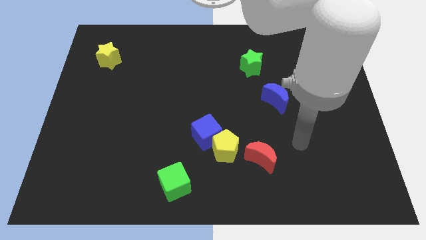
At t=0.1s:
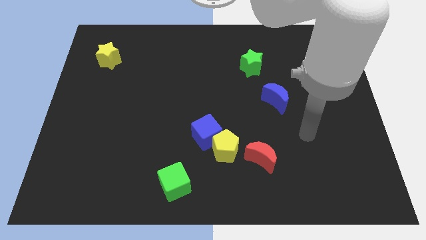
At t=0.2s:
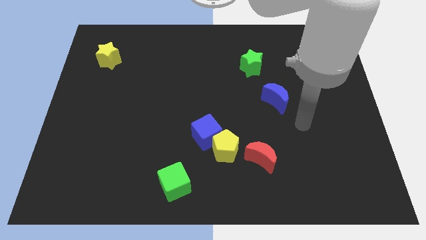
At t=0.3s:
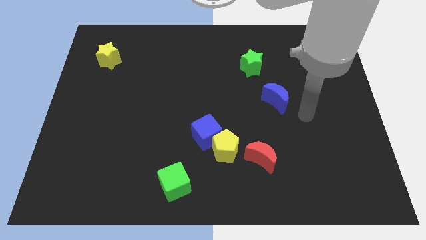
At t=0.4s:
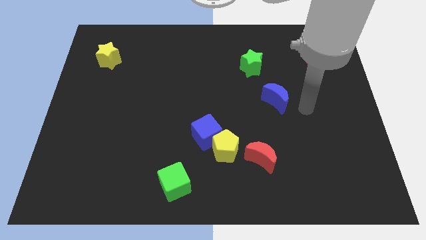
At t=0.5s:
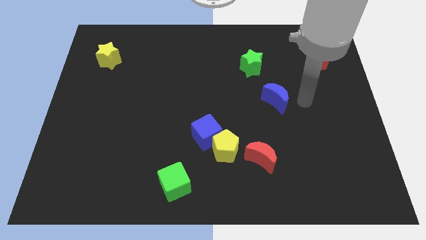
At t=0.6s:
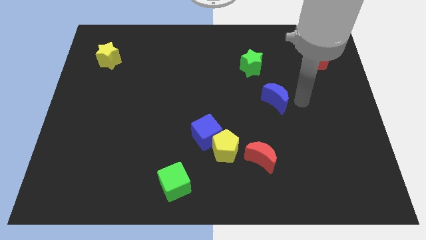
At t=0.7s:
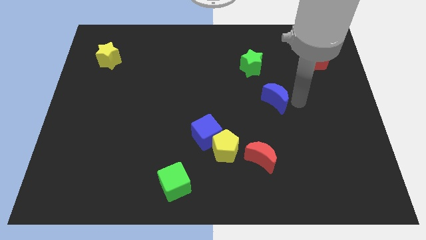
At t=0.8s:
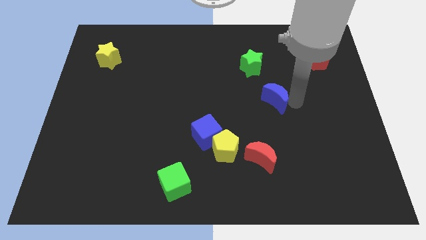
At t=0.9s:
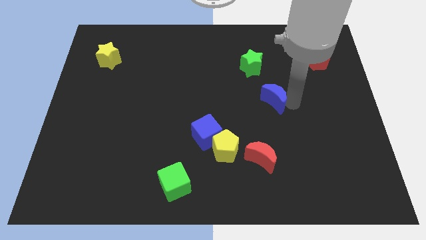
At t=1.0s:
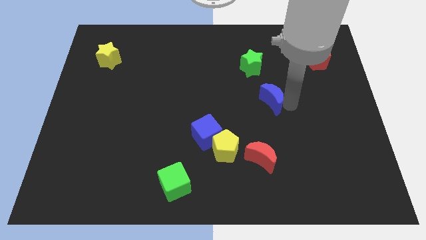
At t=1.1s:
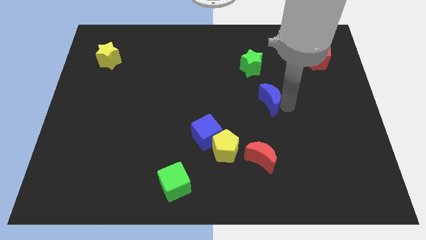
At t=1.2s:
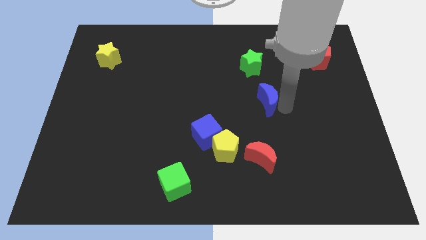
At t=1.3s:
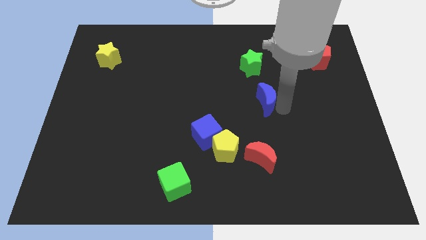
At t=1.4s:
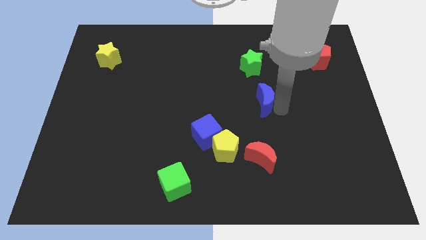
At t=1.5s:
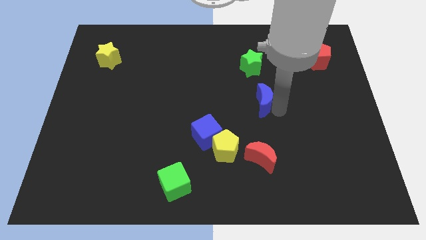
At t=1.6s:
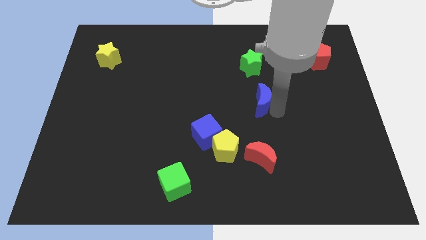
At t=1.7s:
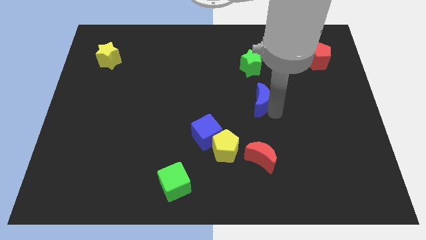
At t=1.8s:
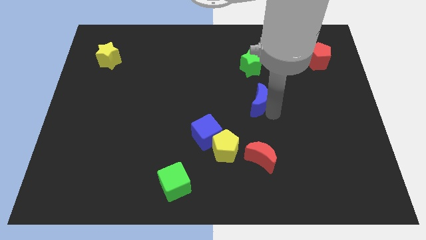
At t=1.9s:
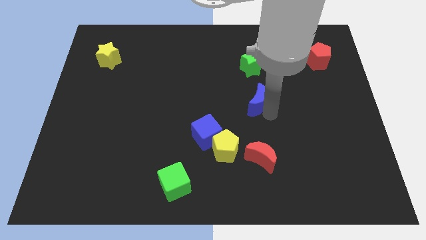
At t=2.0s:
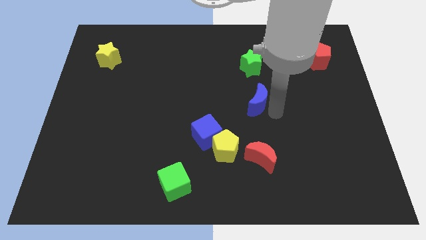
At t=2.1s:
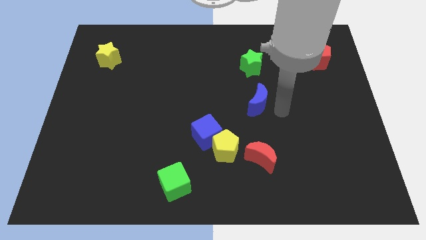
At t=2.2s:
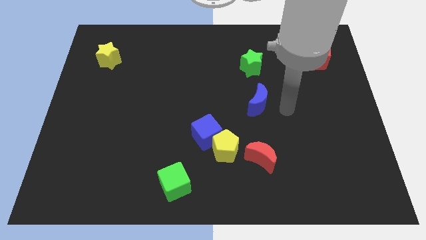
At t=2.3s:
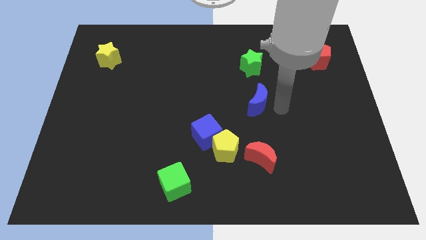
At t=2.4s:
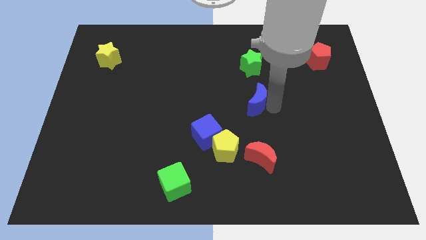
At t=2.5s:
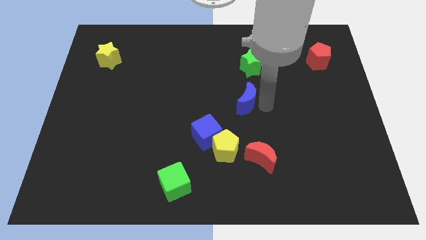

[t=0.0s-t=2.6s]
push the blue moon to the left a little

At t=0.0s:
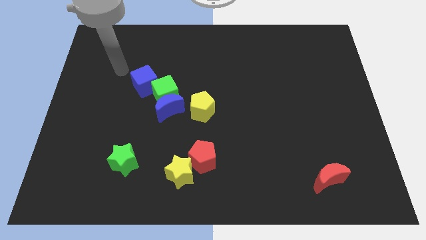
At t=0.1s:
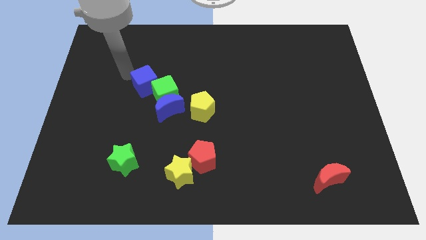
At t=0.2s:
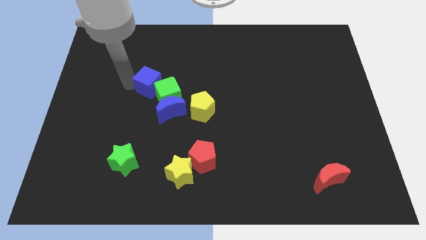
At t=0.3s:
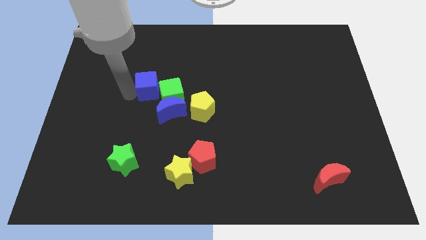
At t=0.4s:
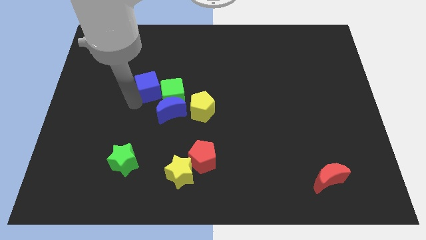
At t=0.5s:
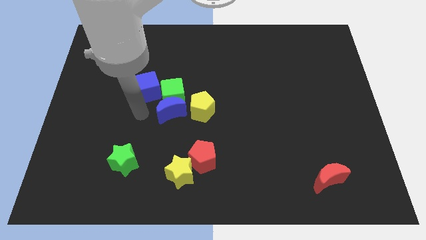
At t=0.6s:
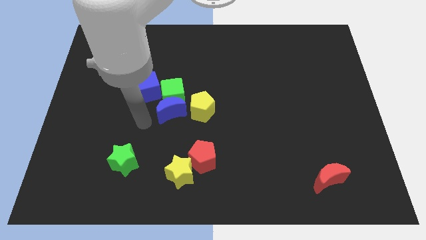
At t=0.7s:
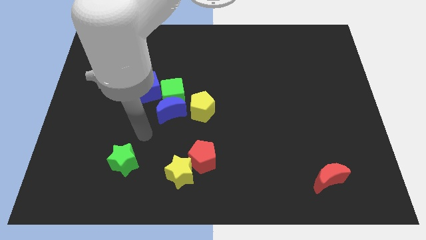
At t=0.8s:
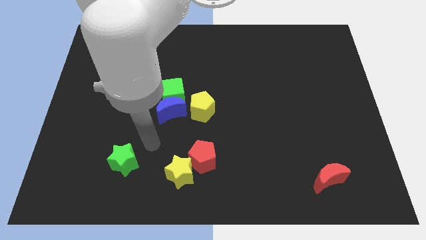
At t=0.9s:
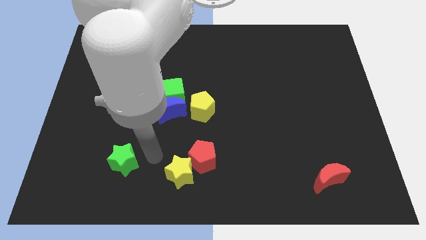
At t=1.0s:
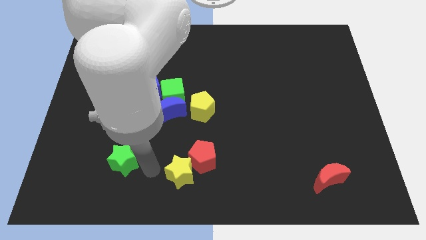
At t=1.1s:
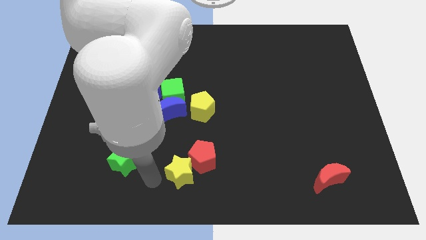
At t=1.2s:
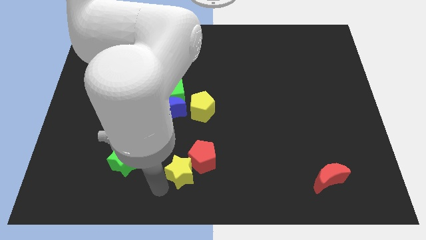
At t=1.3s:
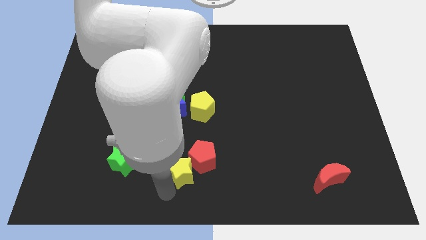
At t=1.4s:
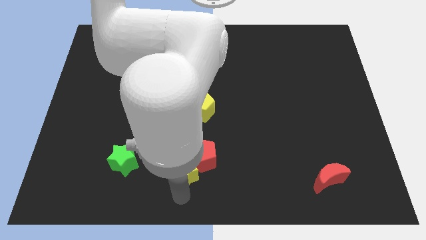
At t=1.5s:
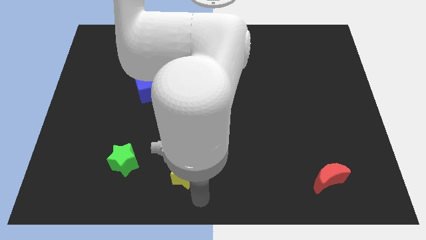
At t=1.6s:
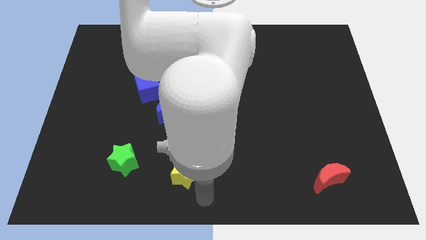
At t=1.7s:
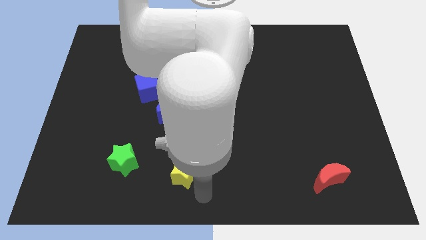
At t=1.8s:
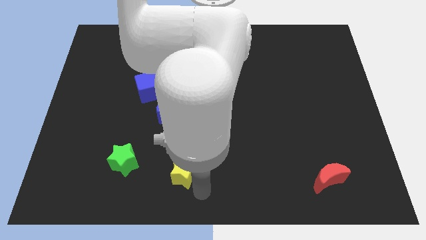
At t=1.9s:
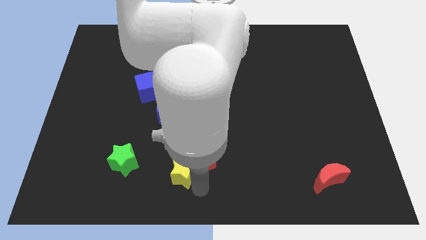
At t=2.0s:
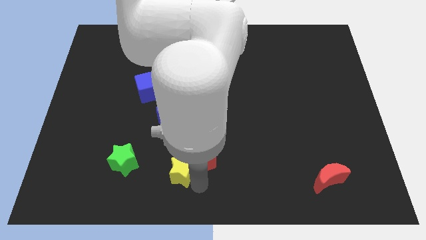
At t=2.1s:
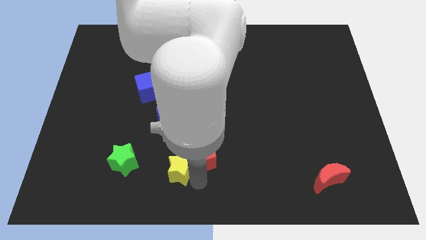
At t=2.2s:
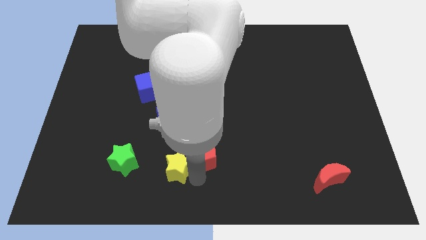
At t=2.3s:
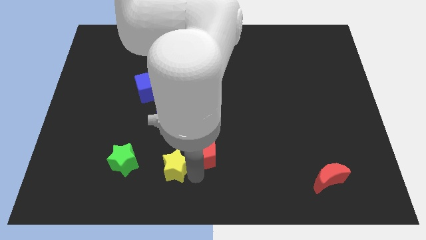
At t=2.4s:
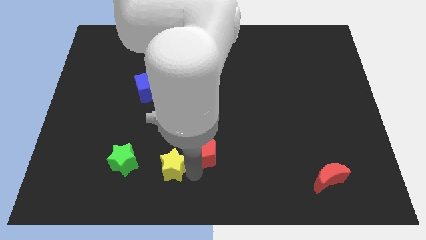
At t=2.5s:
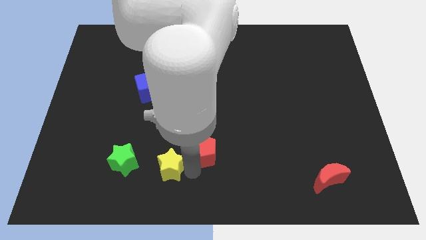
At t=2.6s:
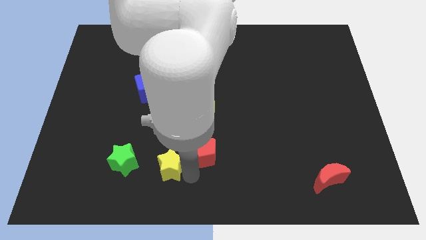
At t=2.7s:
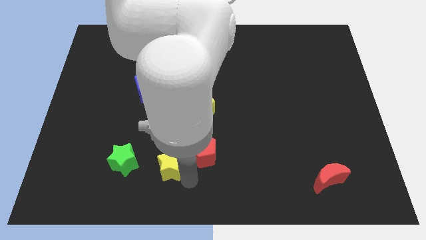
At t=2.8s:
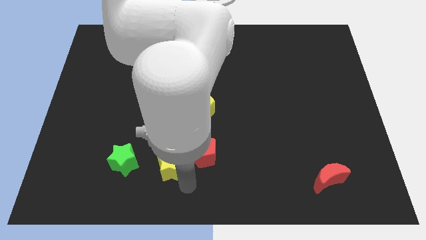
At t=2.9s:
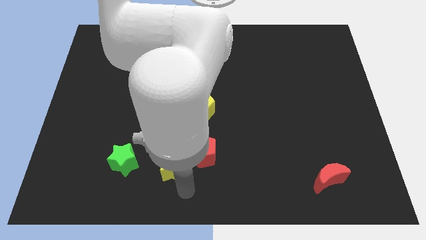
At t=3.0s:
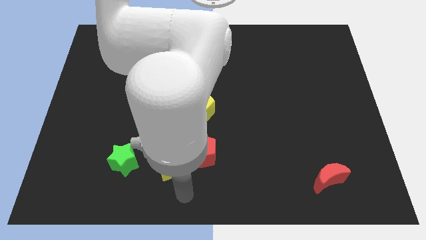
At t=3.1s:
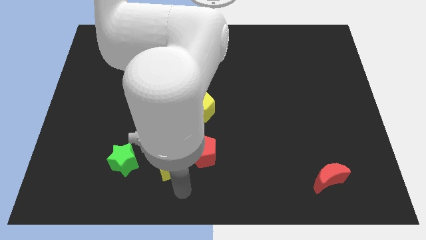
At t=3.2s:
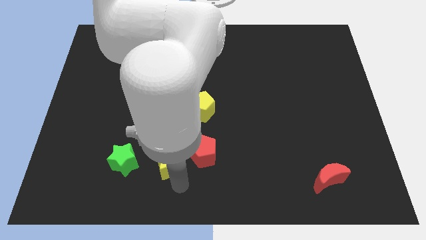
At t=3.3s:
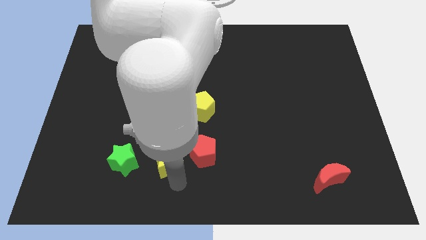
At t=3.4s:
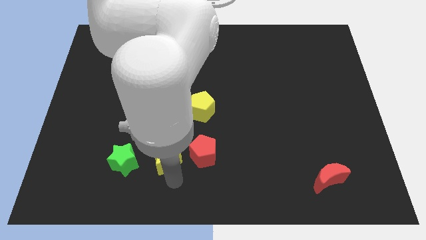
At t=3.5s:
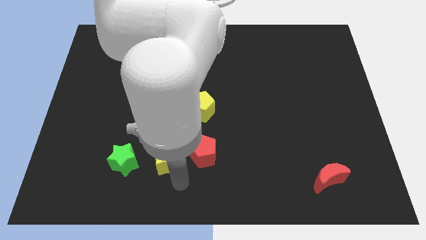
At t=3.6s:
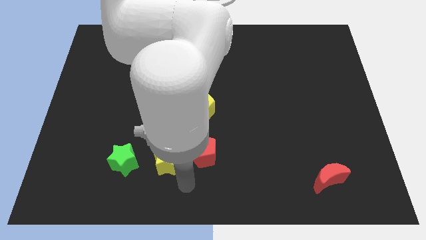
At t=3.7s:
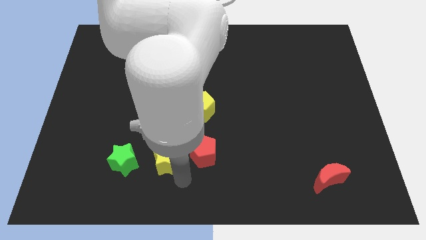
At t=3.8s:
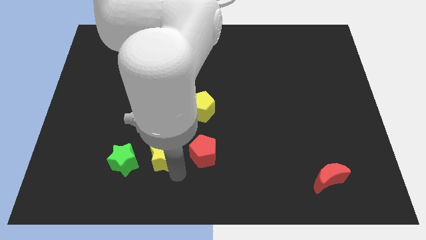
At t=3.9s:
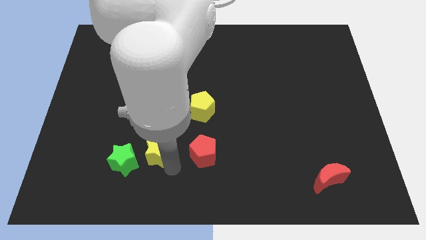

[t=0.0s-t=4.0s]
slide the yellow star up and to the left diagonally a little bit

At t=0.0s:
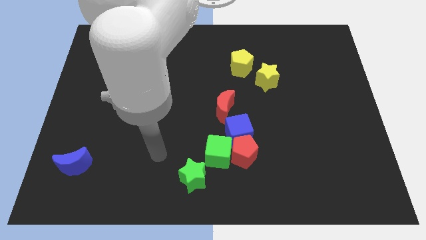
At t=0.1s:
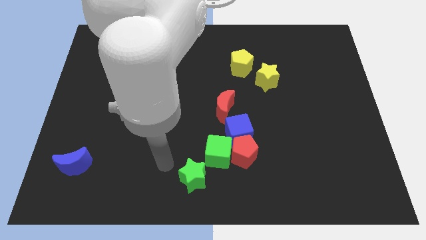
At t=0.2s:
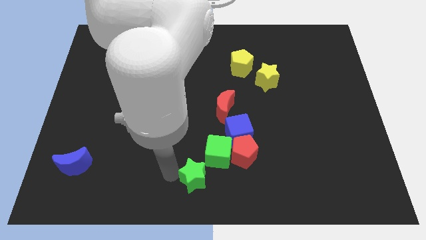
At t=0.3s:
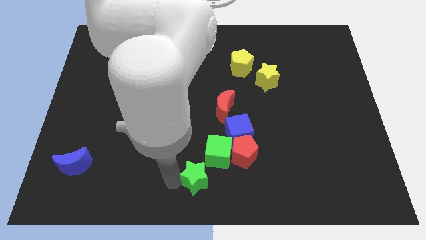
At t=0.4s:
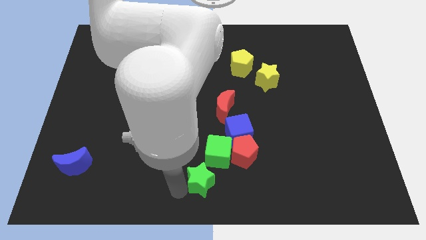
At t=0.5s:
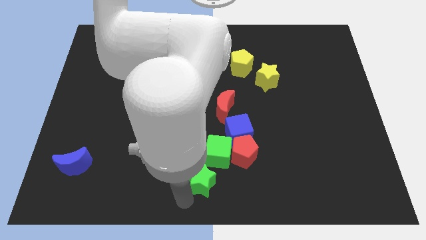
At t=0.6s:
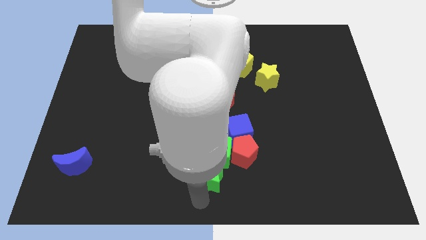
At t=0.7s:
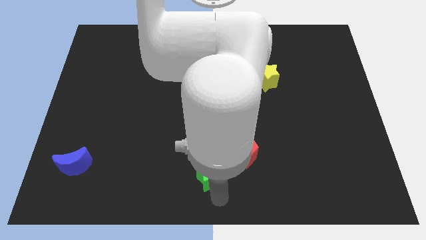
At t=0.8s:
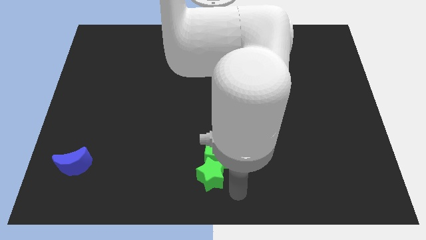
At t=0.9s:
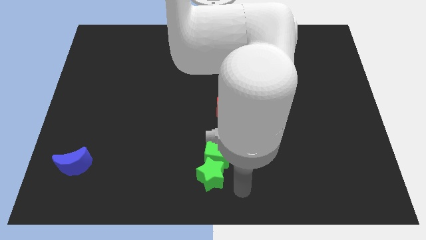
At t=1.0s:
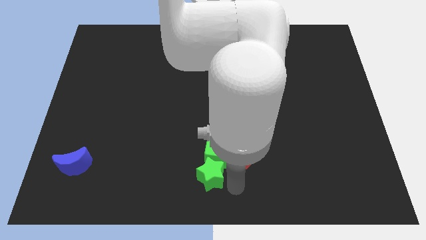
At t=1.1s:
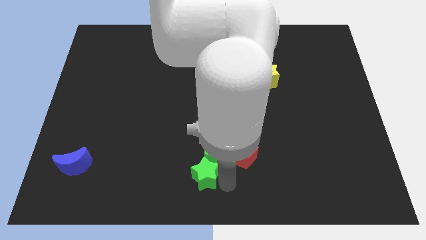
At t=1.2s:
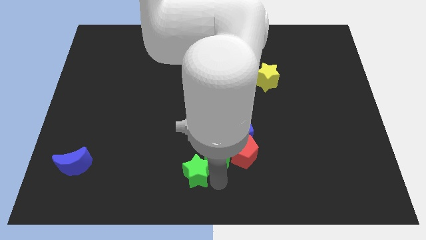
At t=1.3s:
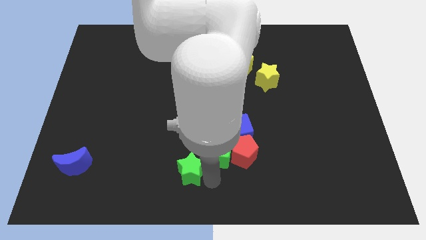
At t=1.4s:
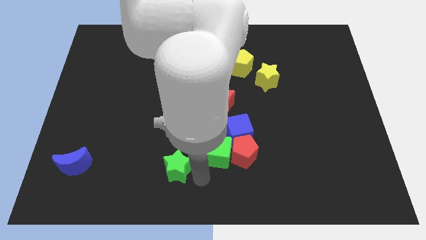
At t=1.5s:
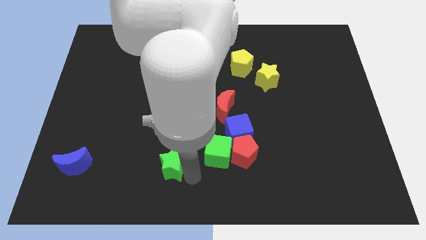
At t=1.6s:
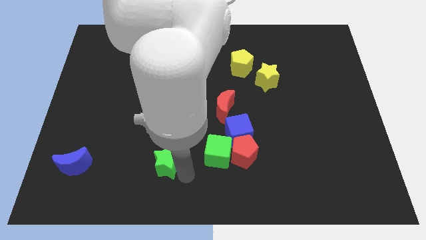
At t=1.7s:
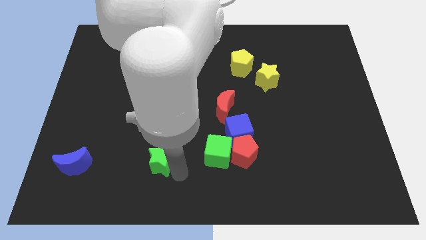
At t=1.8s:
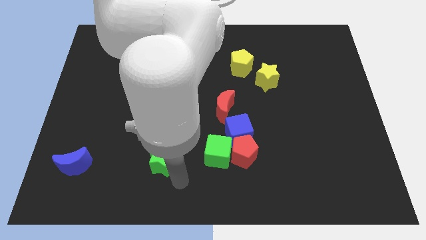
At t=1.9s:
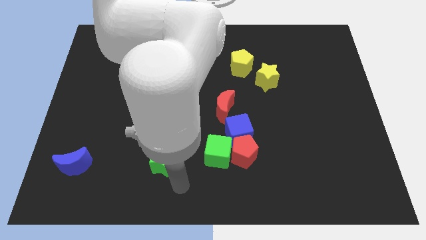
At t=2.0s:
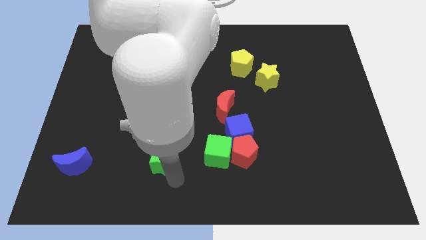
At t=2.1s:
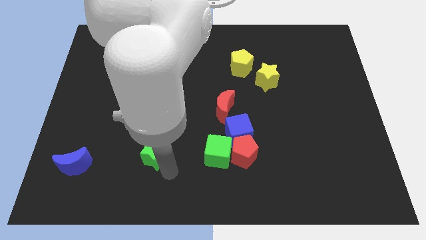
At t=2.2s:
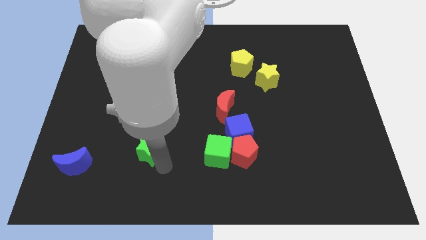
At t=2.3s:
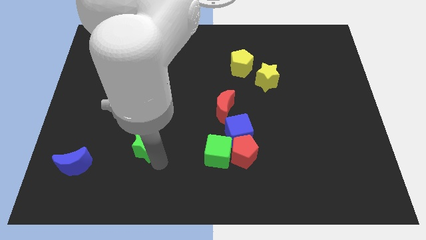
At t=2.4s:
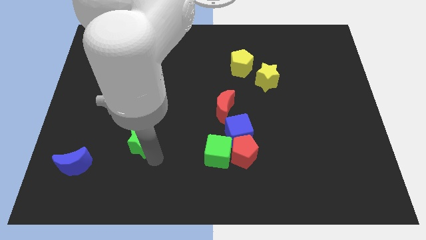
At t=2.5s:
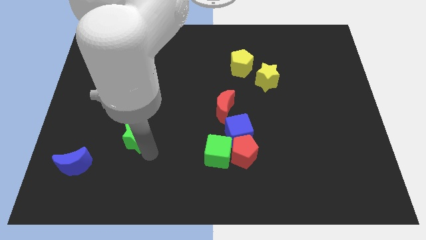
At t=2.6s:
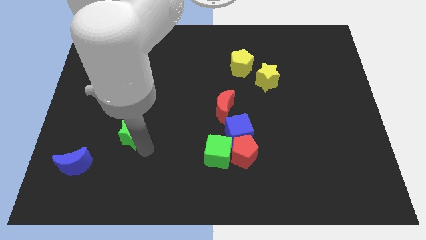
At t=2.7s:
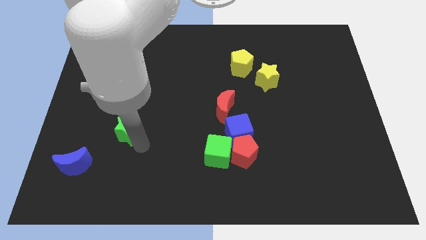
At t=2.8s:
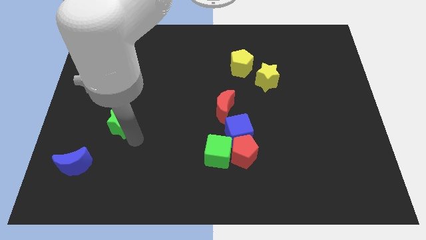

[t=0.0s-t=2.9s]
push the green star diagonally upwards and to the left
